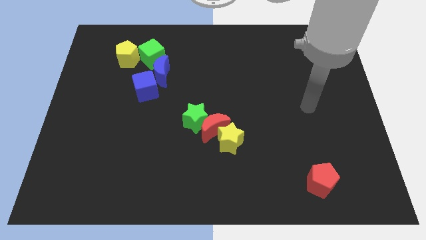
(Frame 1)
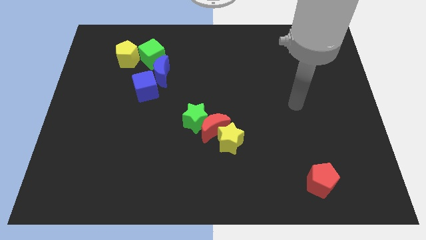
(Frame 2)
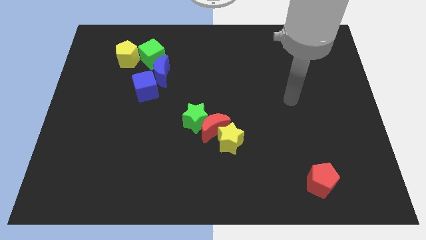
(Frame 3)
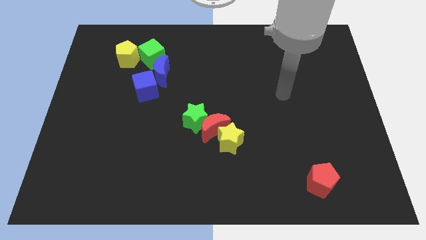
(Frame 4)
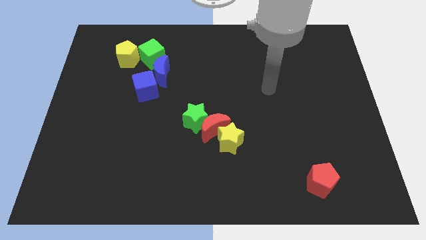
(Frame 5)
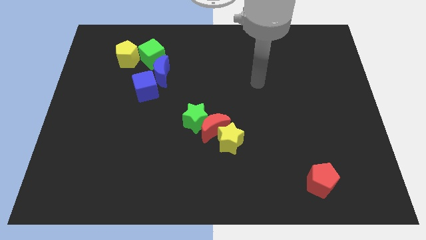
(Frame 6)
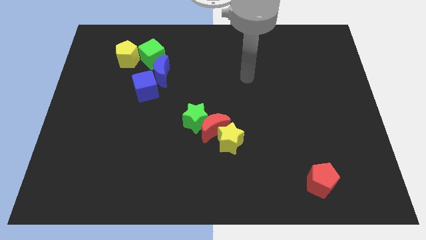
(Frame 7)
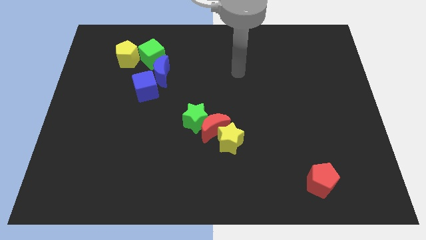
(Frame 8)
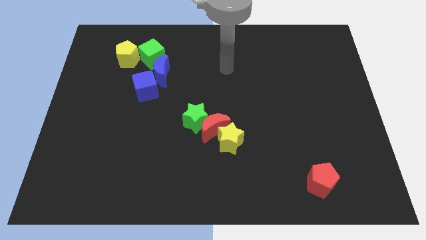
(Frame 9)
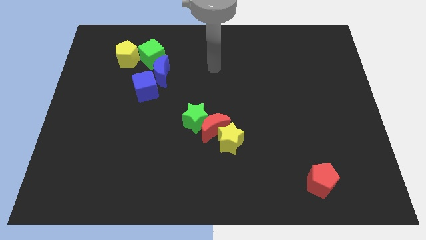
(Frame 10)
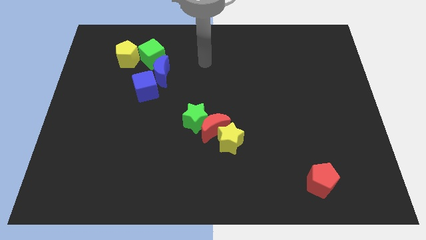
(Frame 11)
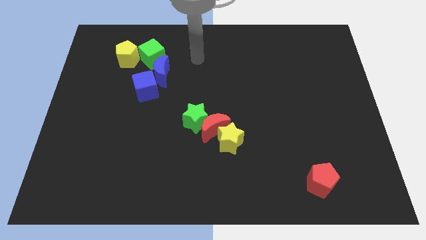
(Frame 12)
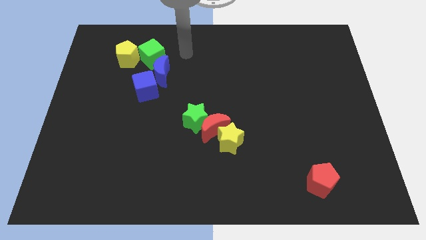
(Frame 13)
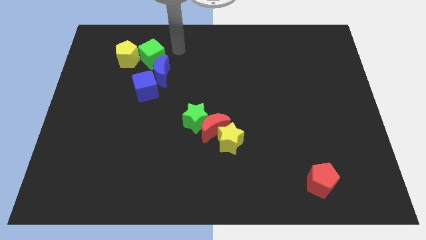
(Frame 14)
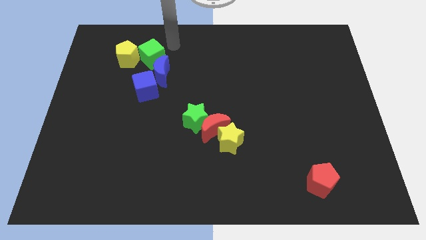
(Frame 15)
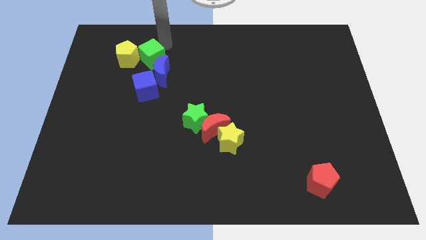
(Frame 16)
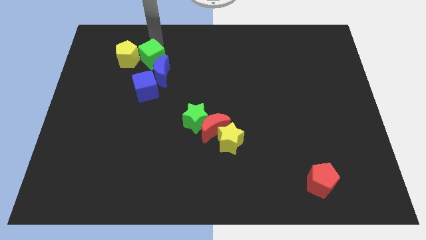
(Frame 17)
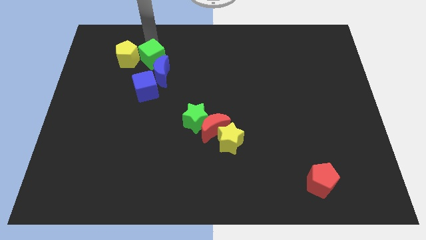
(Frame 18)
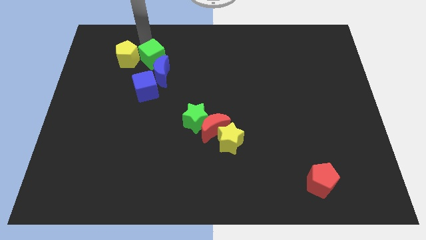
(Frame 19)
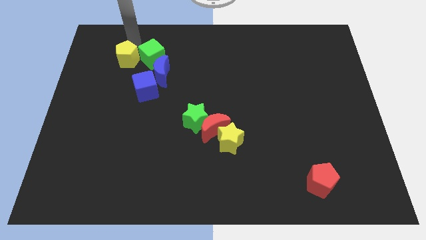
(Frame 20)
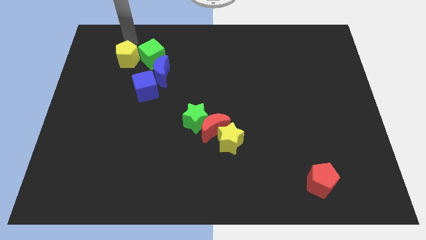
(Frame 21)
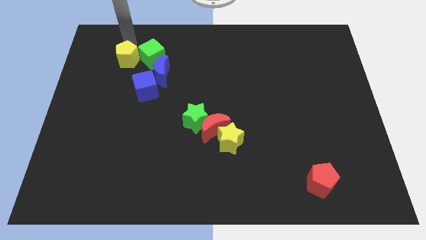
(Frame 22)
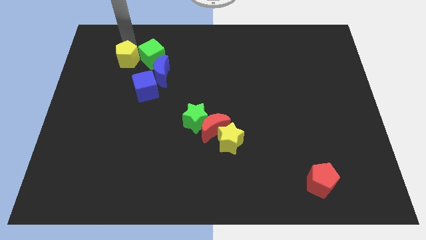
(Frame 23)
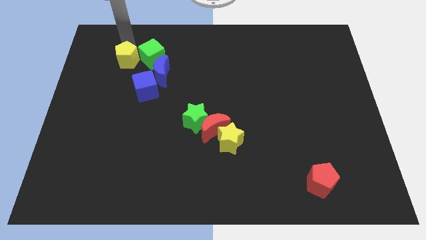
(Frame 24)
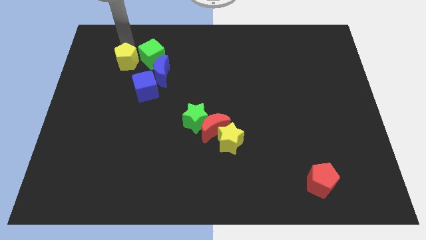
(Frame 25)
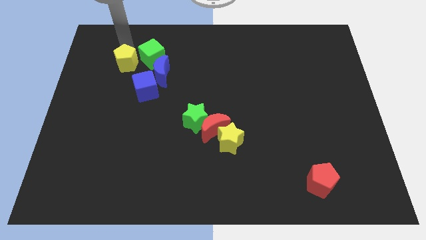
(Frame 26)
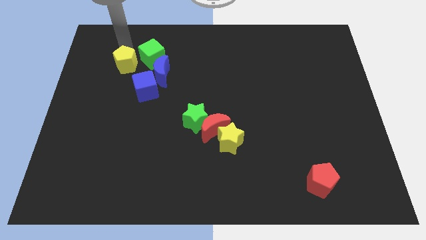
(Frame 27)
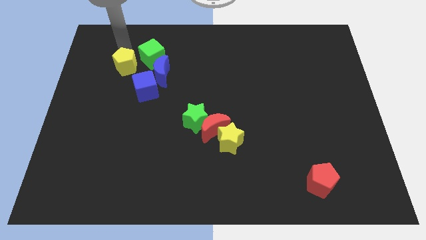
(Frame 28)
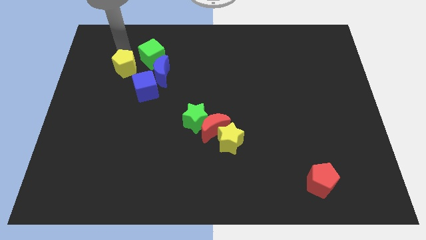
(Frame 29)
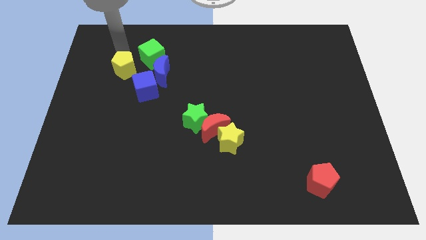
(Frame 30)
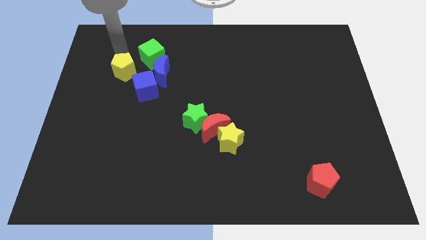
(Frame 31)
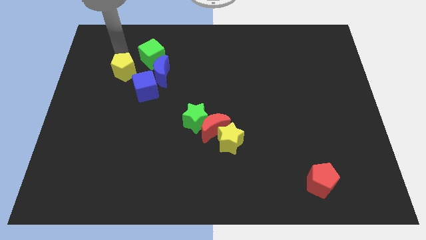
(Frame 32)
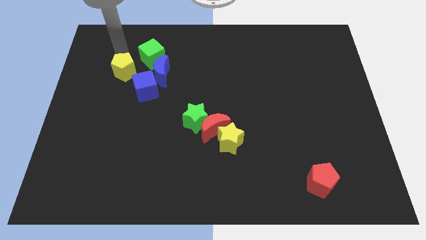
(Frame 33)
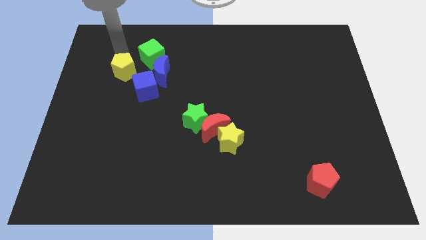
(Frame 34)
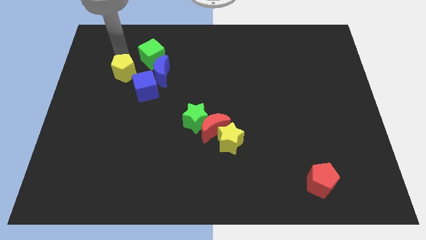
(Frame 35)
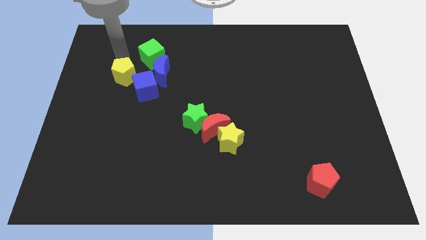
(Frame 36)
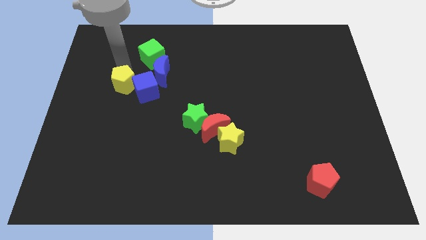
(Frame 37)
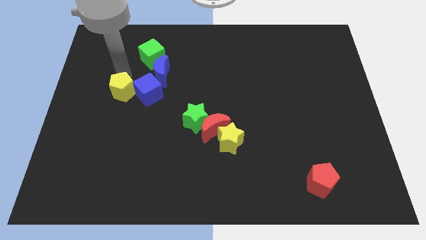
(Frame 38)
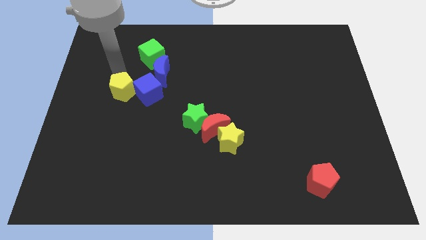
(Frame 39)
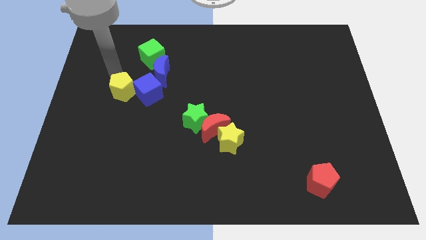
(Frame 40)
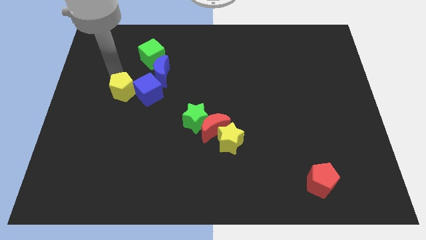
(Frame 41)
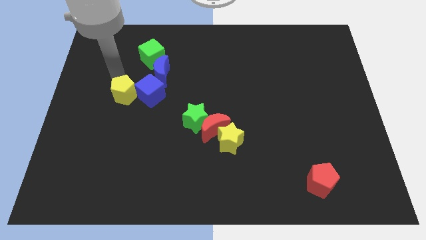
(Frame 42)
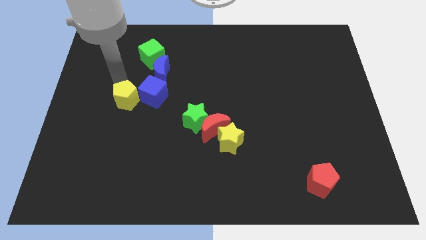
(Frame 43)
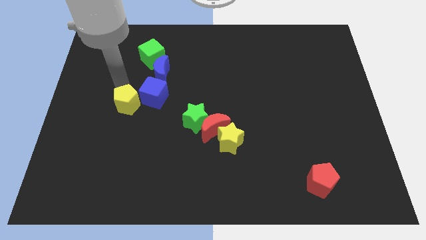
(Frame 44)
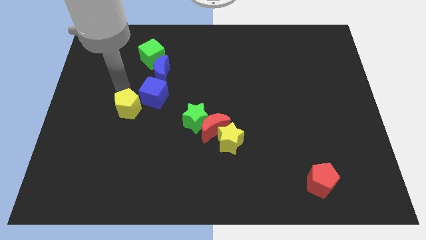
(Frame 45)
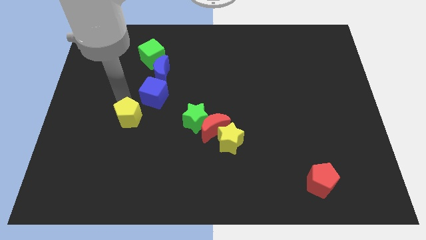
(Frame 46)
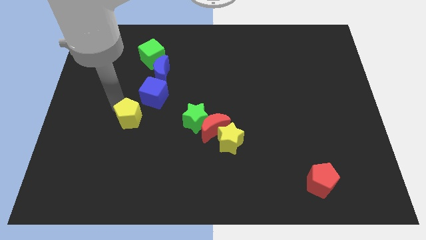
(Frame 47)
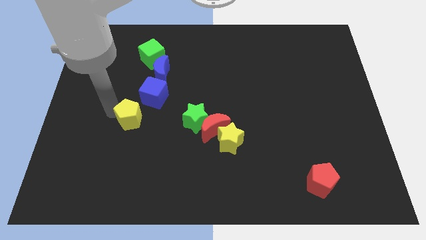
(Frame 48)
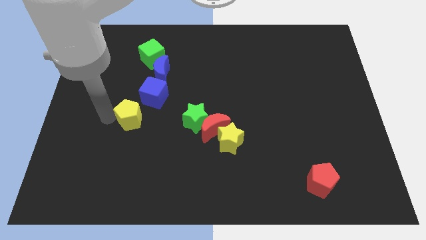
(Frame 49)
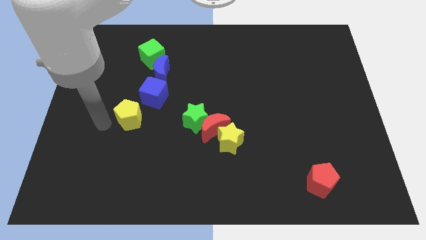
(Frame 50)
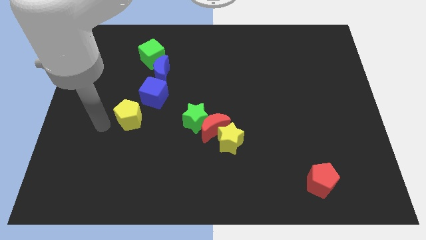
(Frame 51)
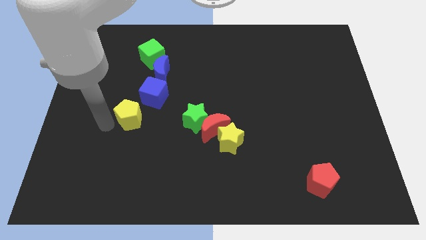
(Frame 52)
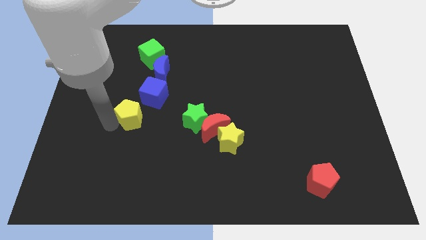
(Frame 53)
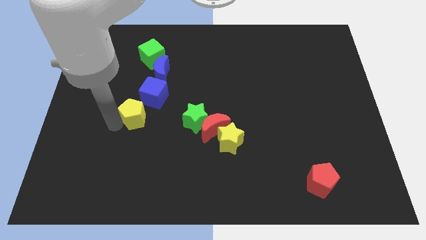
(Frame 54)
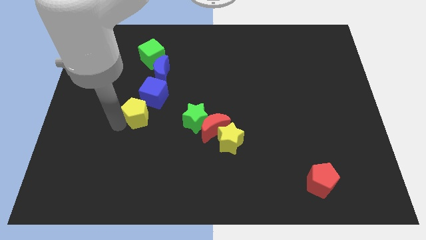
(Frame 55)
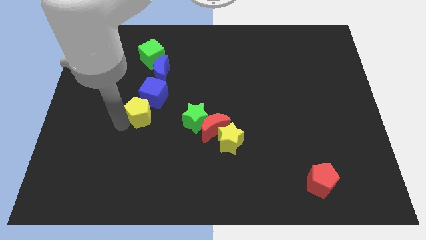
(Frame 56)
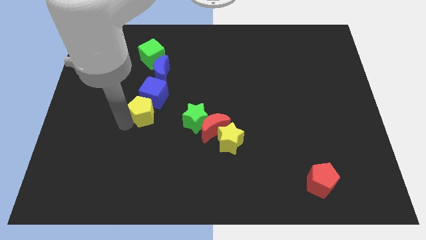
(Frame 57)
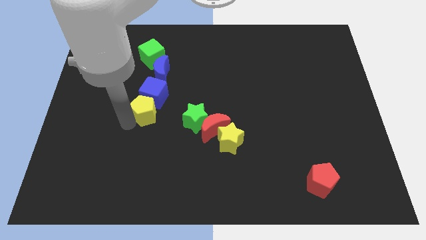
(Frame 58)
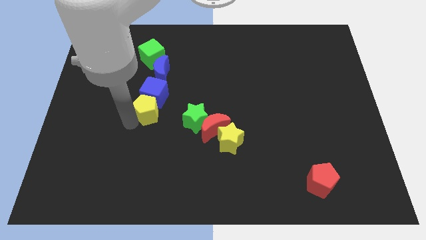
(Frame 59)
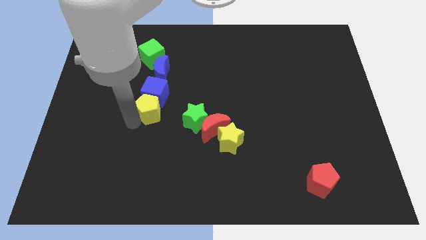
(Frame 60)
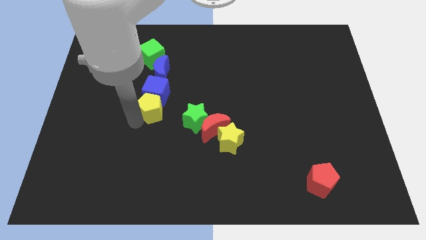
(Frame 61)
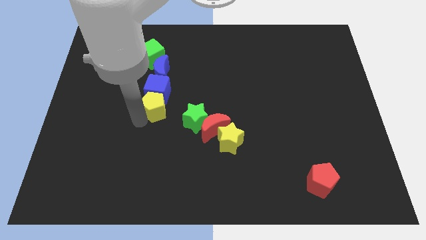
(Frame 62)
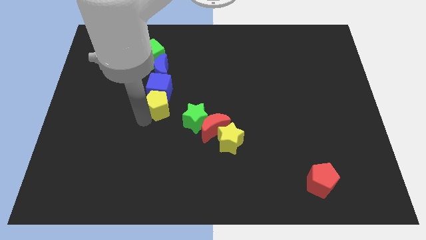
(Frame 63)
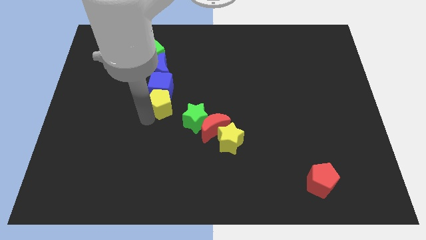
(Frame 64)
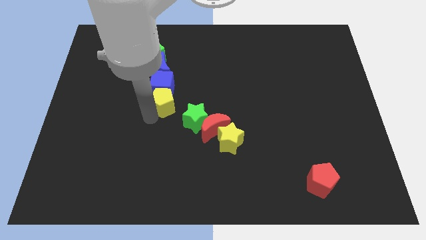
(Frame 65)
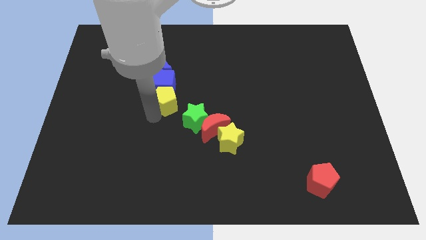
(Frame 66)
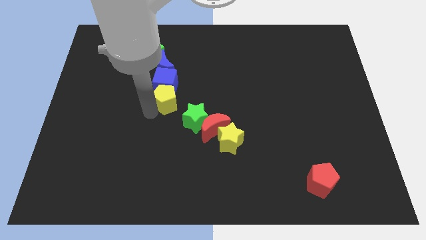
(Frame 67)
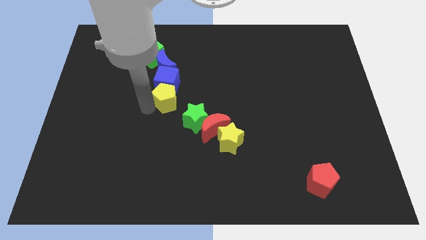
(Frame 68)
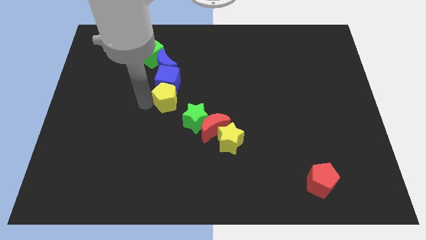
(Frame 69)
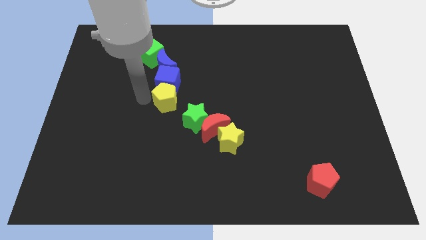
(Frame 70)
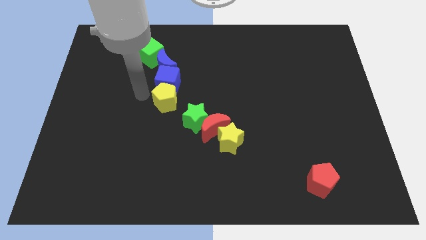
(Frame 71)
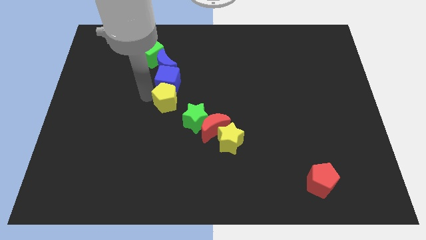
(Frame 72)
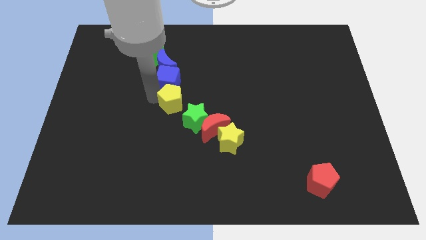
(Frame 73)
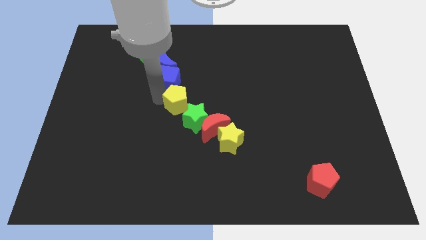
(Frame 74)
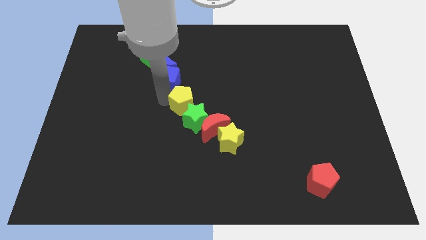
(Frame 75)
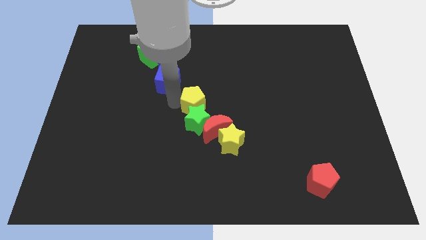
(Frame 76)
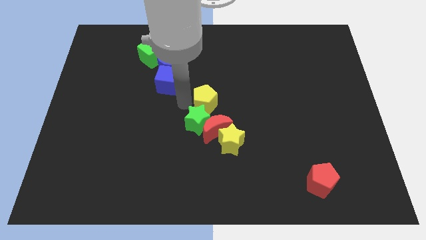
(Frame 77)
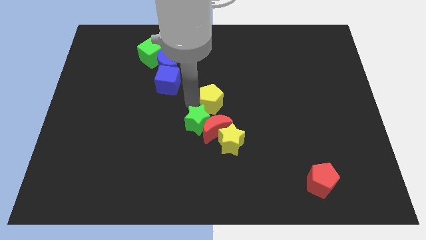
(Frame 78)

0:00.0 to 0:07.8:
move the yellow pentagon above the yellow star
